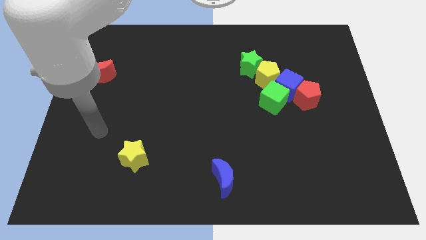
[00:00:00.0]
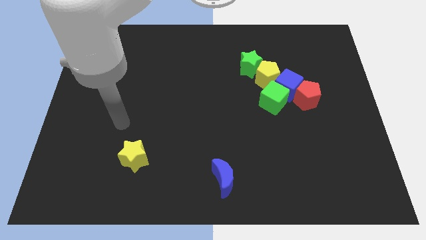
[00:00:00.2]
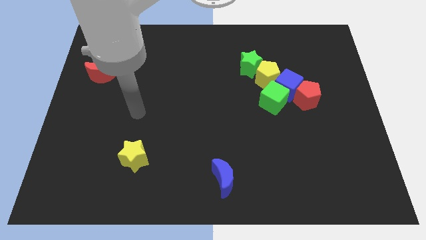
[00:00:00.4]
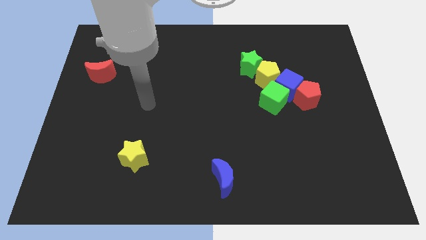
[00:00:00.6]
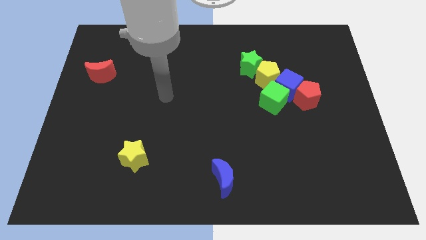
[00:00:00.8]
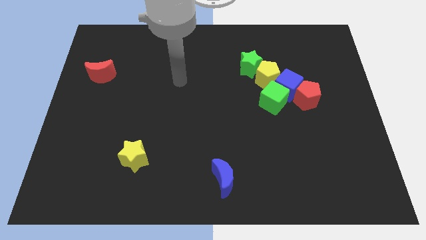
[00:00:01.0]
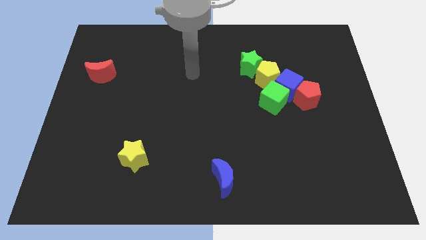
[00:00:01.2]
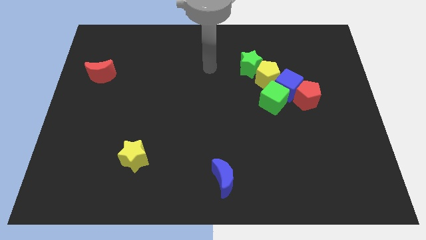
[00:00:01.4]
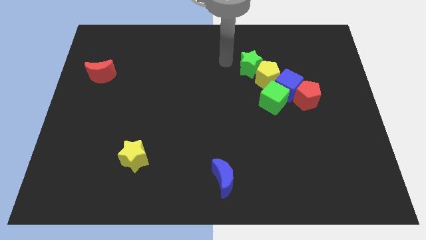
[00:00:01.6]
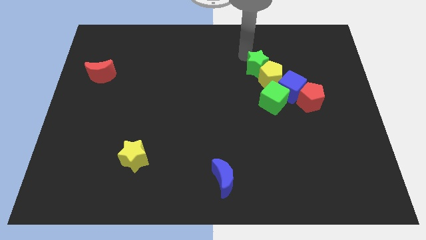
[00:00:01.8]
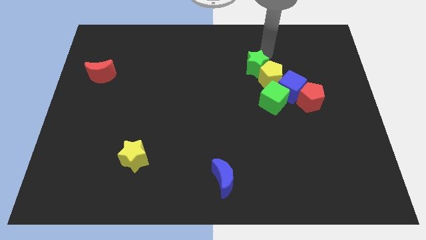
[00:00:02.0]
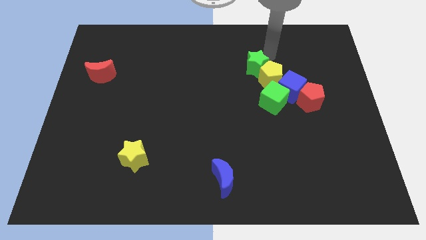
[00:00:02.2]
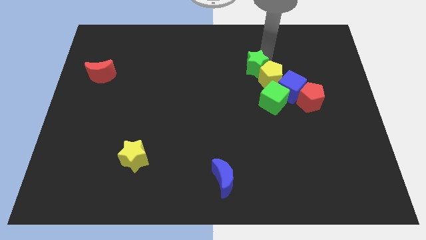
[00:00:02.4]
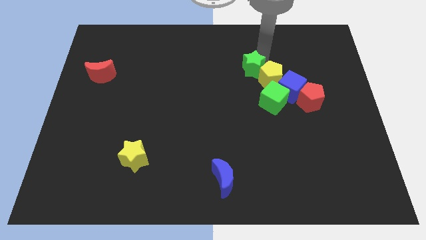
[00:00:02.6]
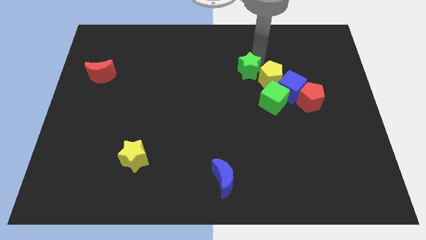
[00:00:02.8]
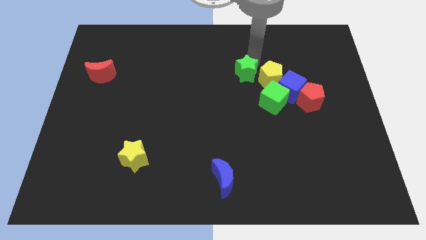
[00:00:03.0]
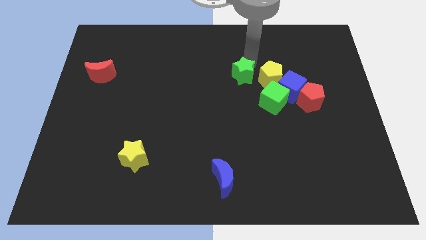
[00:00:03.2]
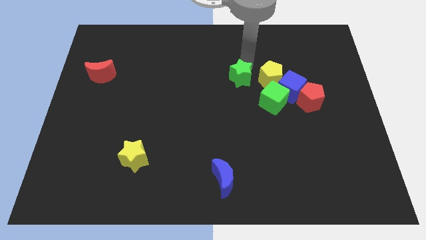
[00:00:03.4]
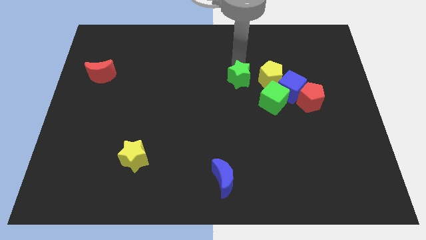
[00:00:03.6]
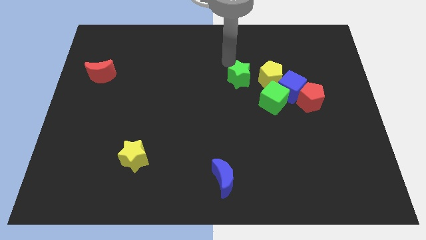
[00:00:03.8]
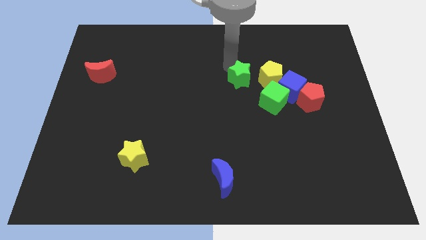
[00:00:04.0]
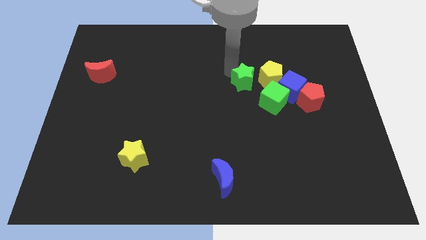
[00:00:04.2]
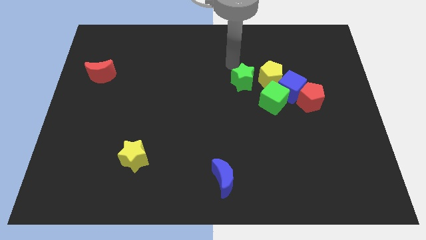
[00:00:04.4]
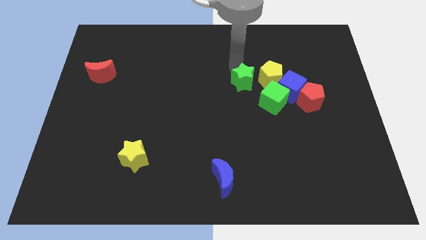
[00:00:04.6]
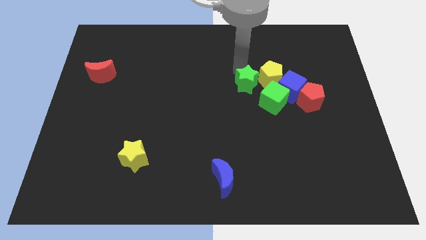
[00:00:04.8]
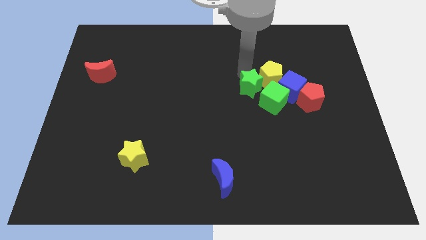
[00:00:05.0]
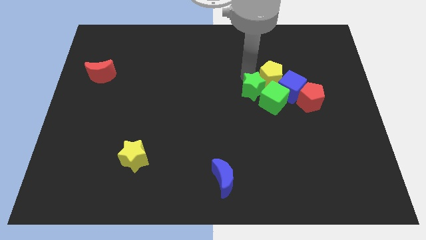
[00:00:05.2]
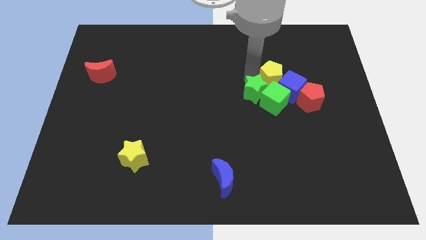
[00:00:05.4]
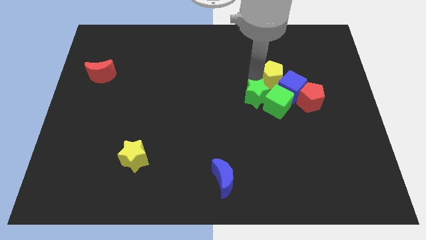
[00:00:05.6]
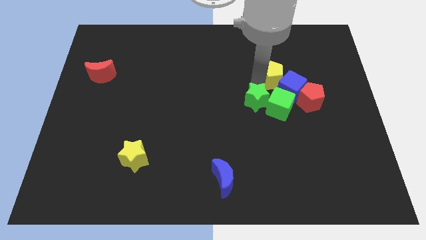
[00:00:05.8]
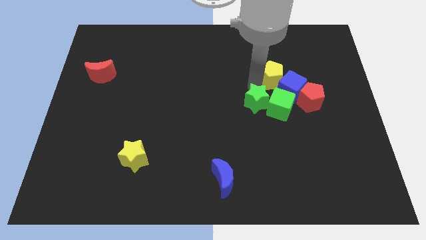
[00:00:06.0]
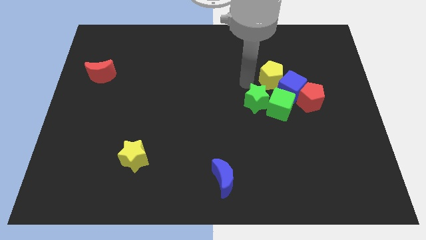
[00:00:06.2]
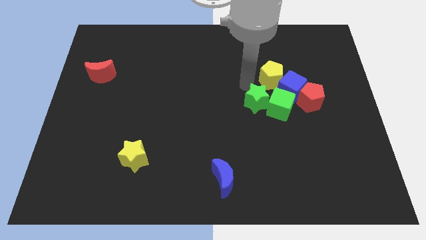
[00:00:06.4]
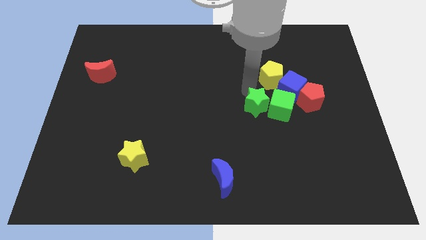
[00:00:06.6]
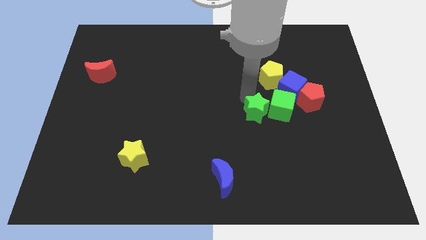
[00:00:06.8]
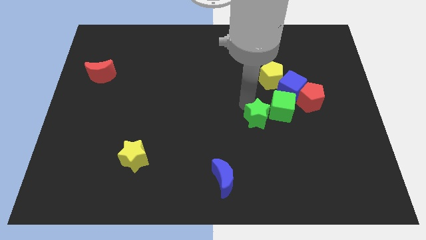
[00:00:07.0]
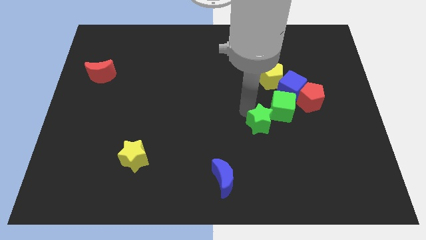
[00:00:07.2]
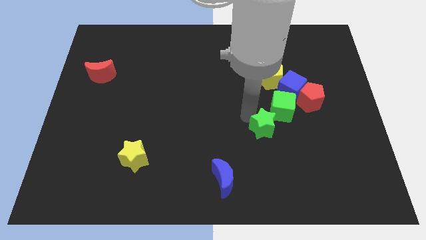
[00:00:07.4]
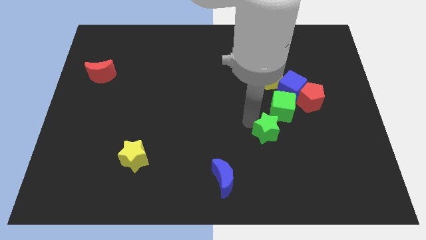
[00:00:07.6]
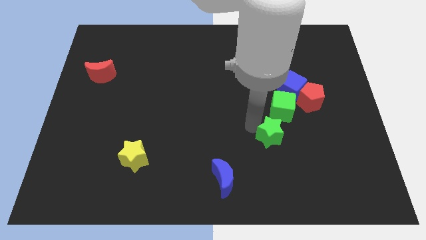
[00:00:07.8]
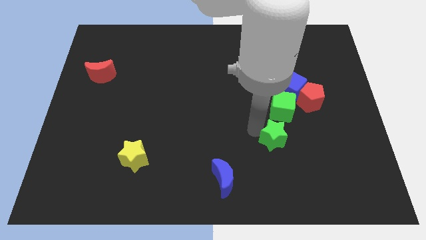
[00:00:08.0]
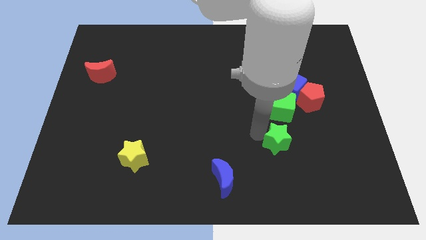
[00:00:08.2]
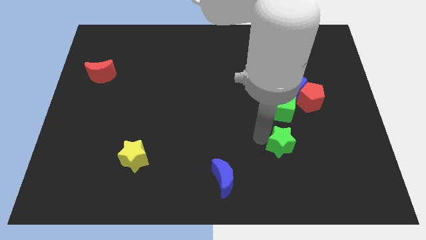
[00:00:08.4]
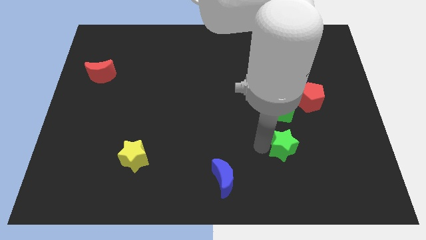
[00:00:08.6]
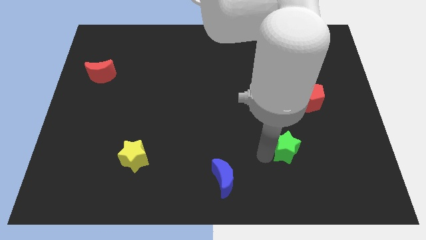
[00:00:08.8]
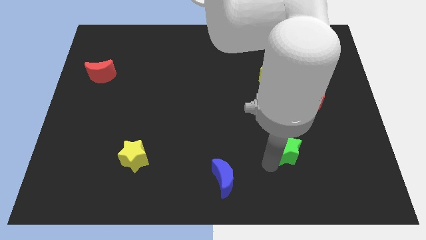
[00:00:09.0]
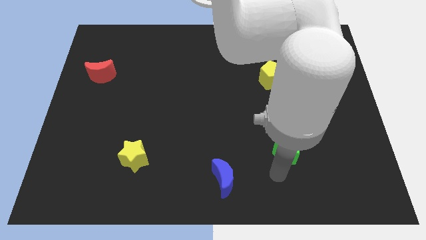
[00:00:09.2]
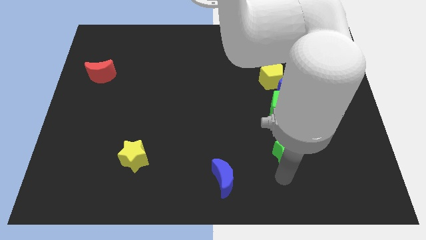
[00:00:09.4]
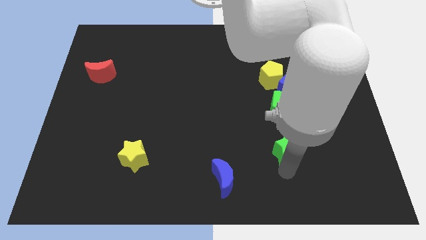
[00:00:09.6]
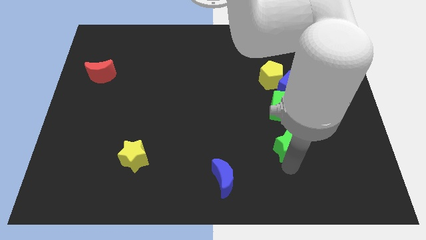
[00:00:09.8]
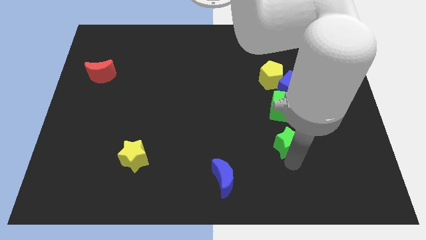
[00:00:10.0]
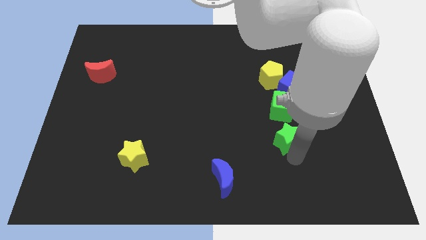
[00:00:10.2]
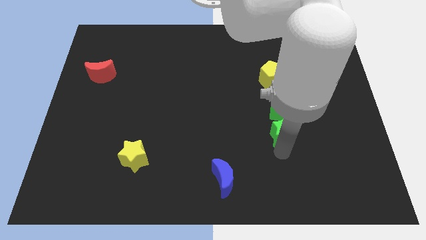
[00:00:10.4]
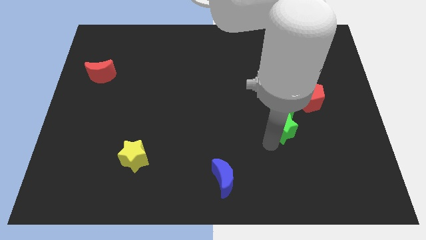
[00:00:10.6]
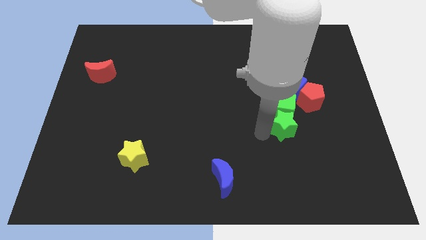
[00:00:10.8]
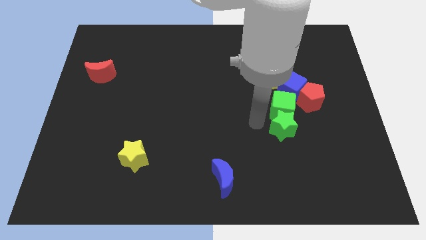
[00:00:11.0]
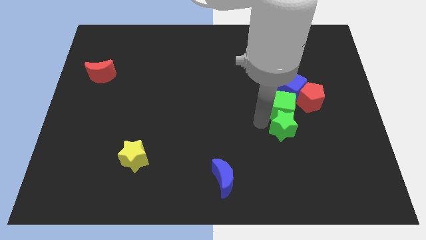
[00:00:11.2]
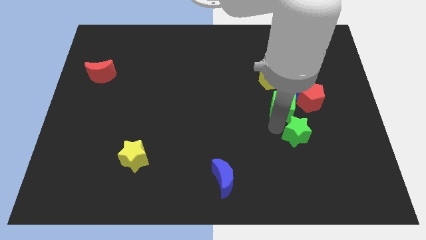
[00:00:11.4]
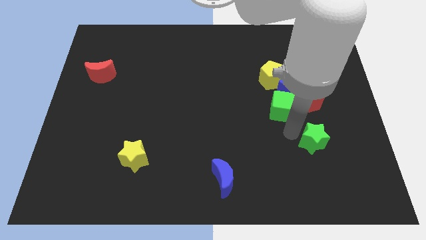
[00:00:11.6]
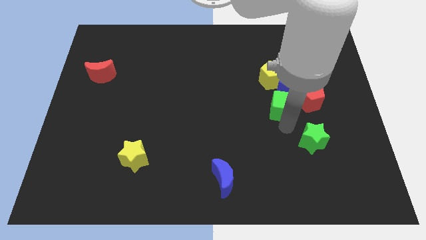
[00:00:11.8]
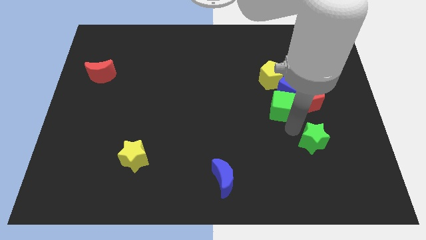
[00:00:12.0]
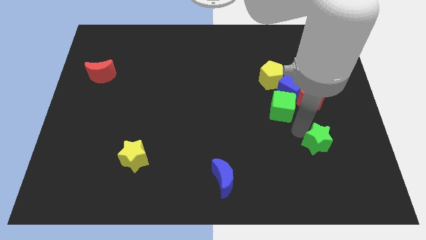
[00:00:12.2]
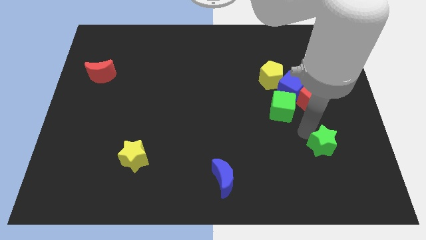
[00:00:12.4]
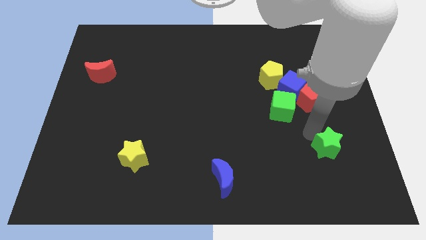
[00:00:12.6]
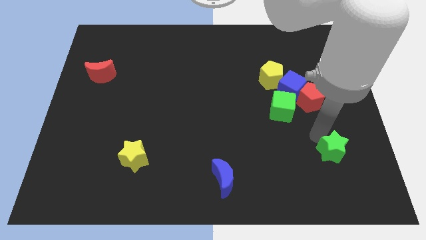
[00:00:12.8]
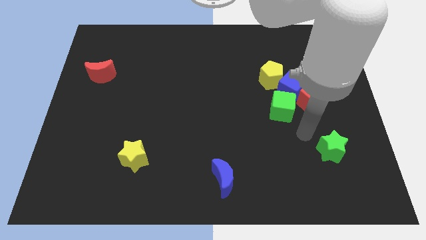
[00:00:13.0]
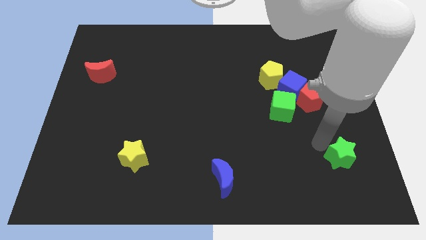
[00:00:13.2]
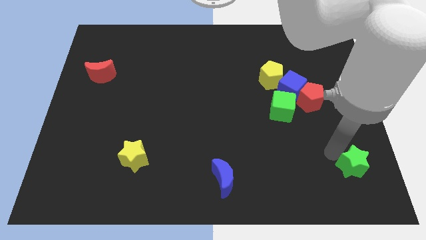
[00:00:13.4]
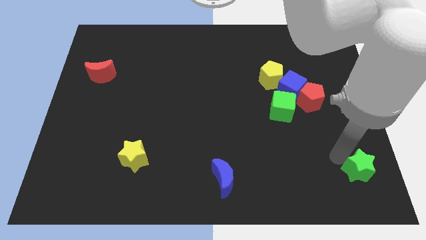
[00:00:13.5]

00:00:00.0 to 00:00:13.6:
move the green star to the bottom right of the board

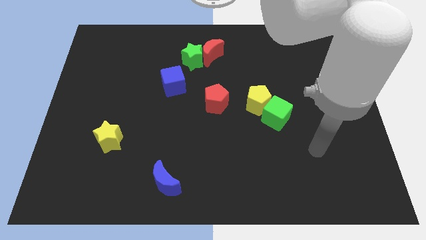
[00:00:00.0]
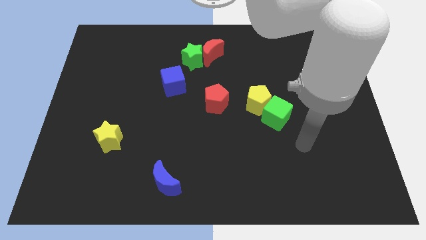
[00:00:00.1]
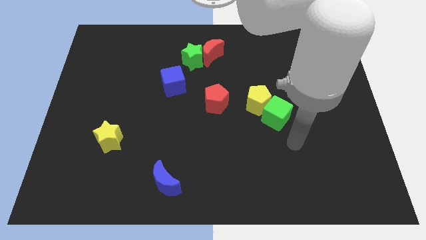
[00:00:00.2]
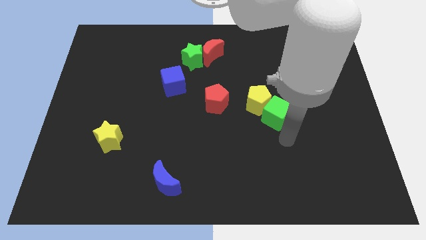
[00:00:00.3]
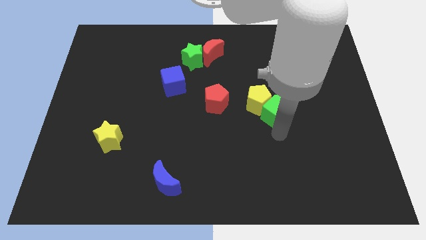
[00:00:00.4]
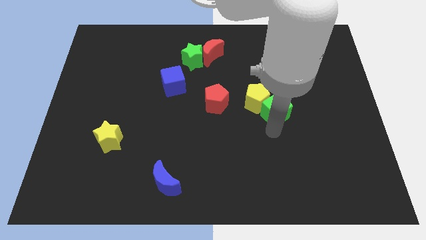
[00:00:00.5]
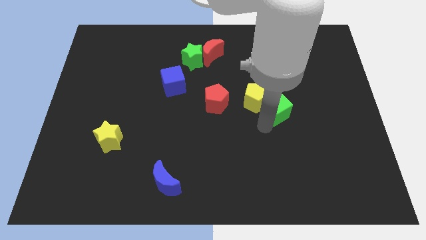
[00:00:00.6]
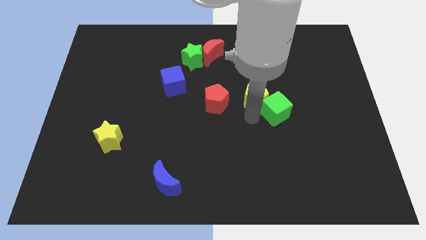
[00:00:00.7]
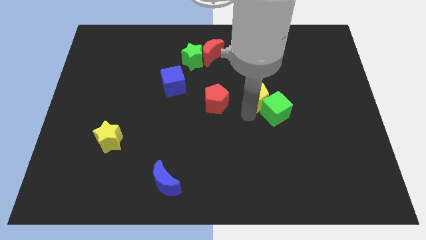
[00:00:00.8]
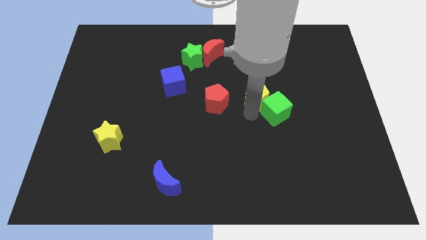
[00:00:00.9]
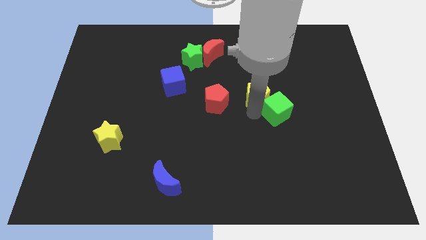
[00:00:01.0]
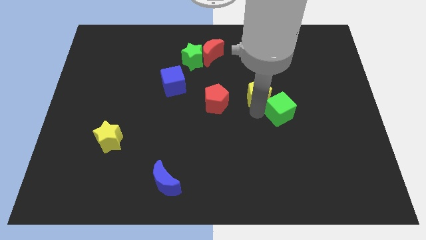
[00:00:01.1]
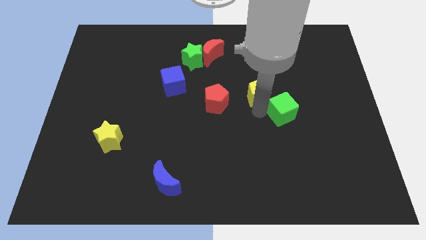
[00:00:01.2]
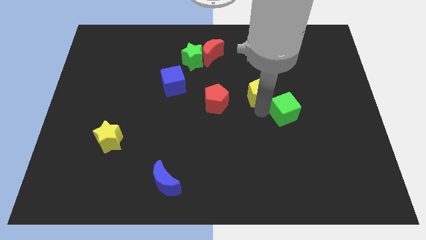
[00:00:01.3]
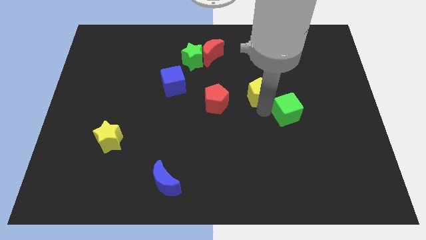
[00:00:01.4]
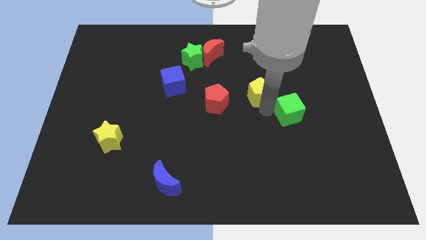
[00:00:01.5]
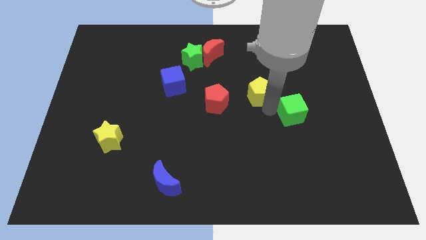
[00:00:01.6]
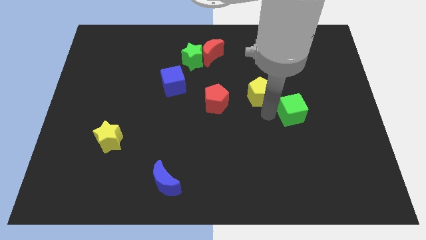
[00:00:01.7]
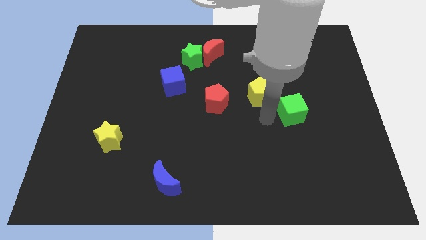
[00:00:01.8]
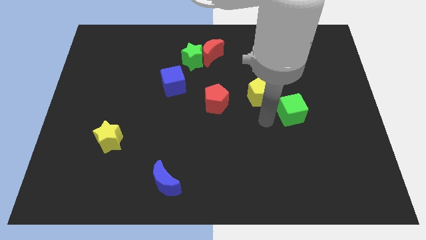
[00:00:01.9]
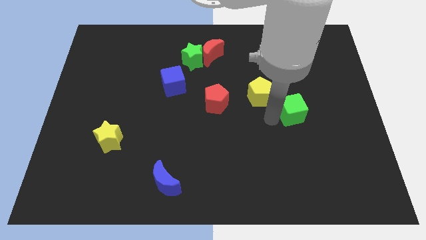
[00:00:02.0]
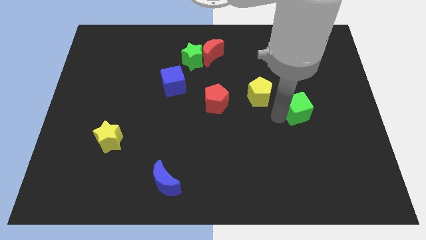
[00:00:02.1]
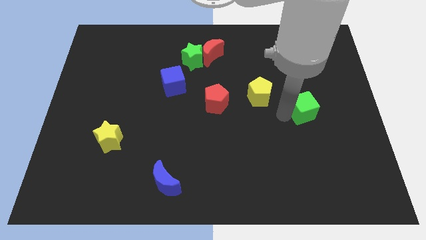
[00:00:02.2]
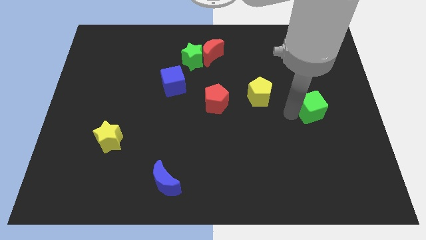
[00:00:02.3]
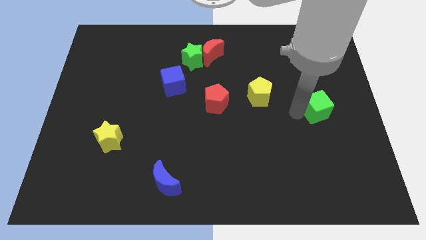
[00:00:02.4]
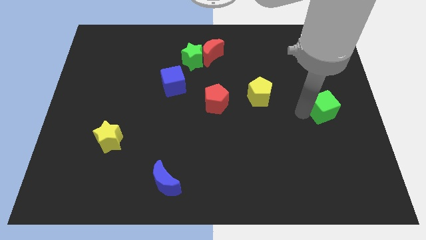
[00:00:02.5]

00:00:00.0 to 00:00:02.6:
move the green cube to the center right
